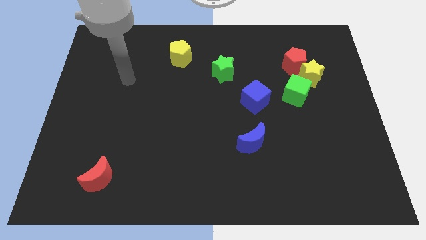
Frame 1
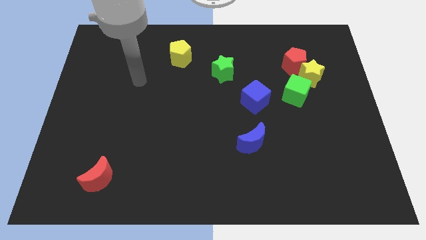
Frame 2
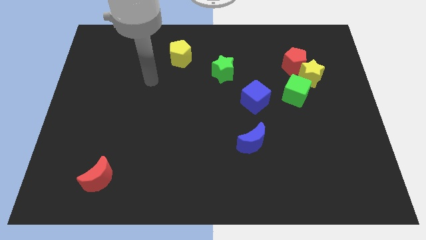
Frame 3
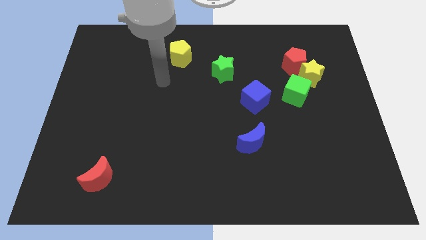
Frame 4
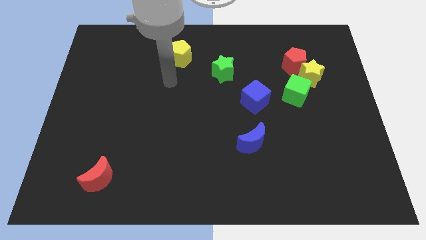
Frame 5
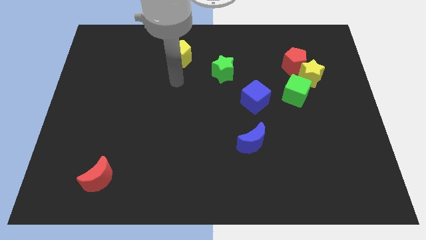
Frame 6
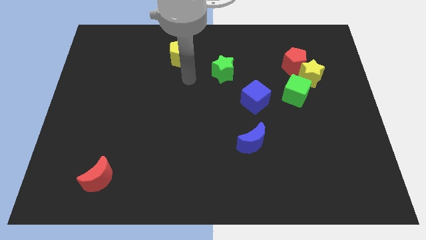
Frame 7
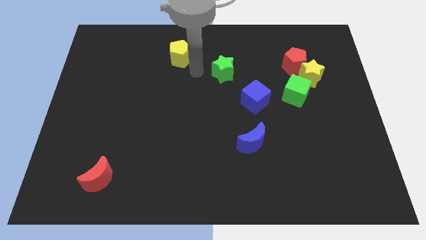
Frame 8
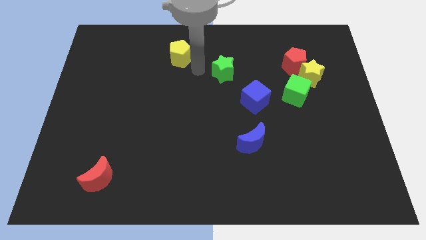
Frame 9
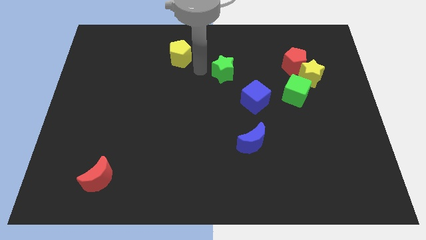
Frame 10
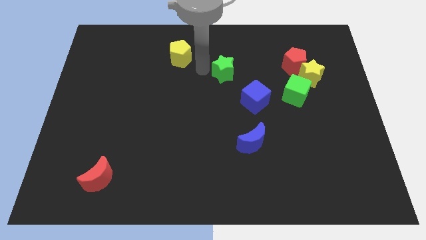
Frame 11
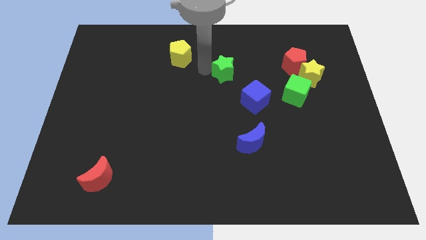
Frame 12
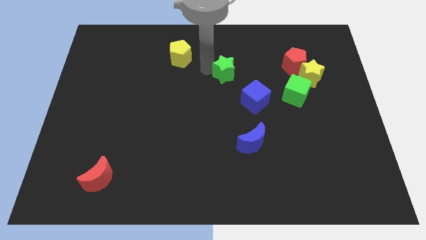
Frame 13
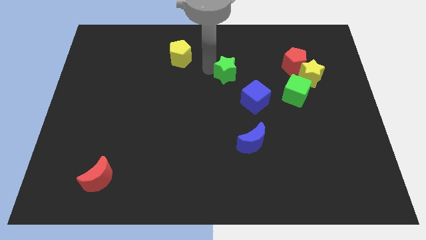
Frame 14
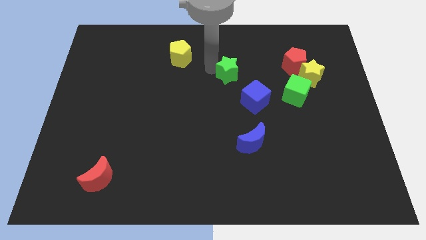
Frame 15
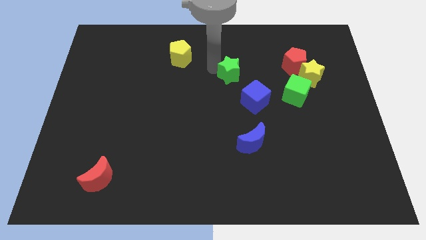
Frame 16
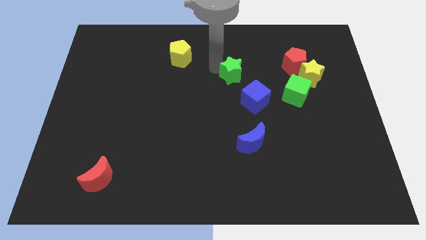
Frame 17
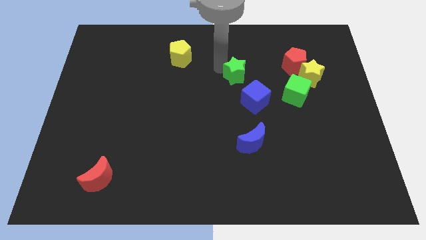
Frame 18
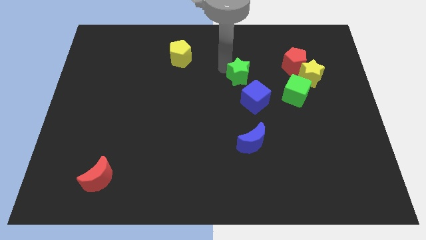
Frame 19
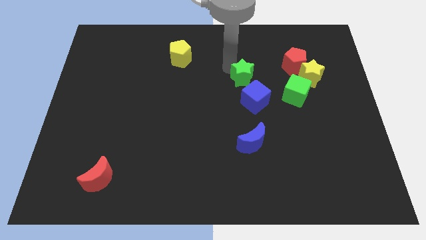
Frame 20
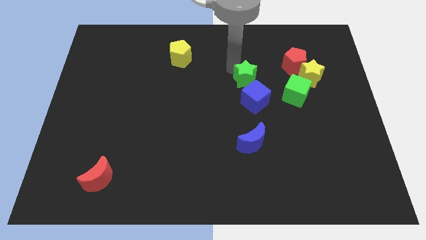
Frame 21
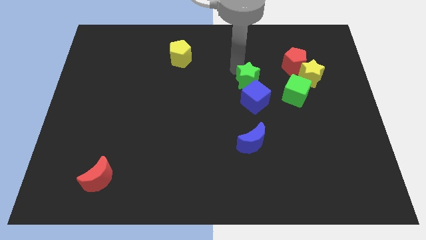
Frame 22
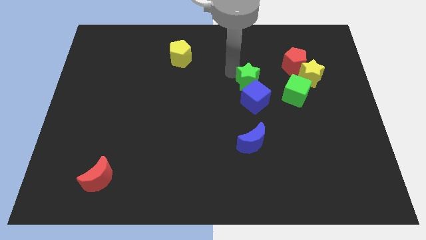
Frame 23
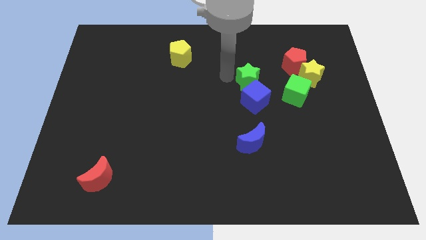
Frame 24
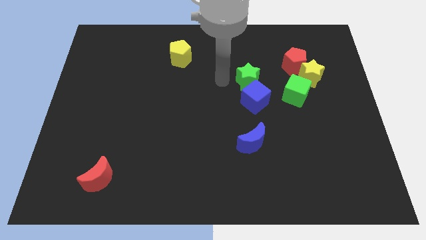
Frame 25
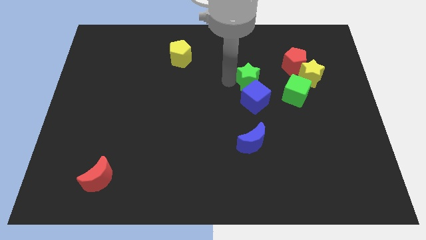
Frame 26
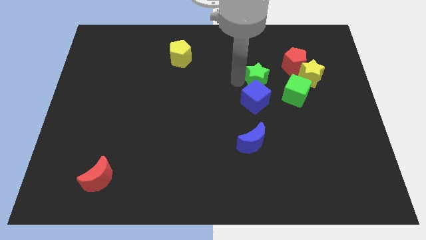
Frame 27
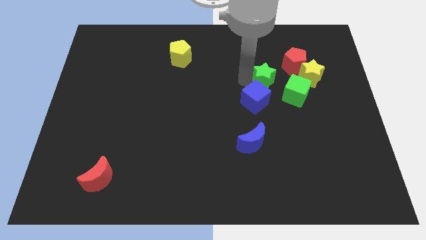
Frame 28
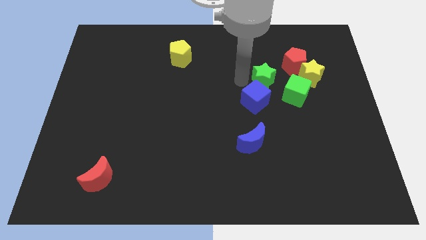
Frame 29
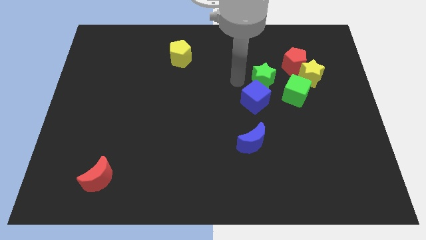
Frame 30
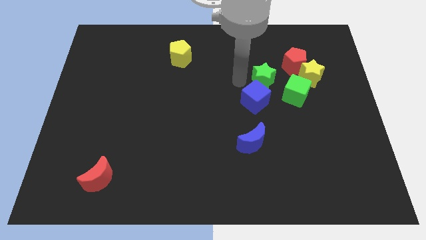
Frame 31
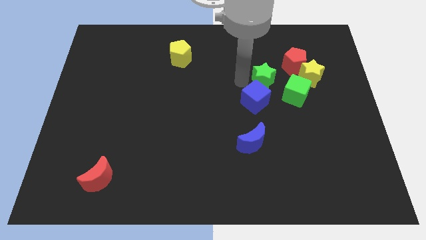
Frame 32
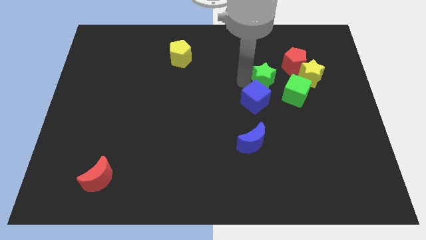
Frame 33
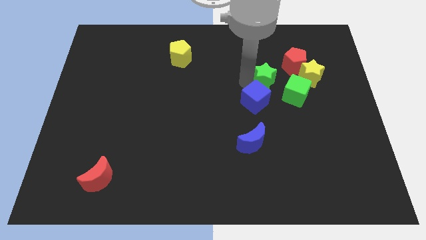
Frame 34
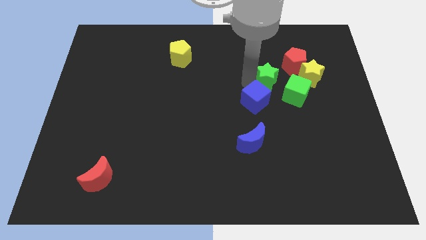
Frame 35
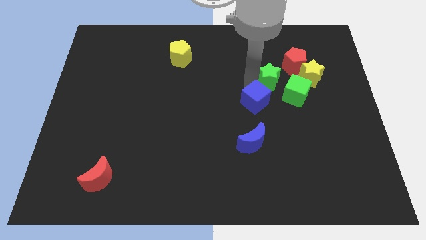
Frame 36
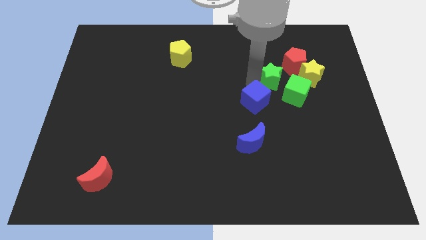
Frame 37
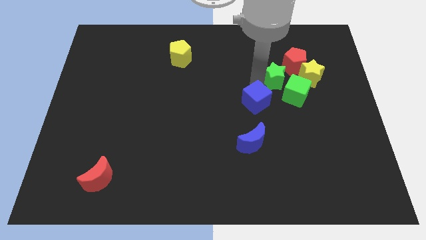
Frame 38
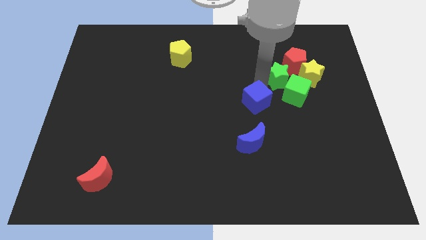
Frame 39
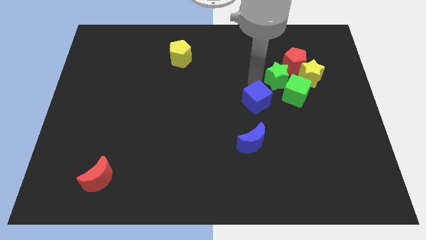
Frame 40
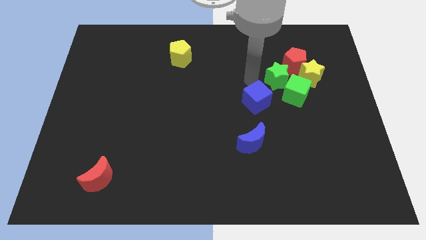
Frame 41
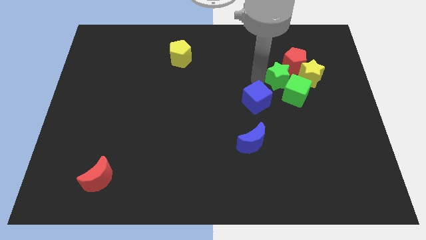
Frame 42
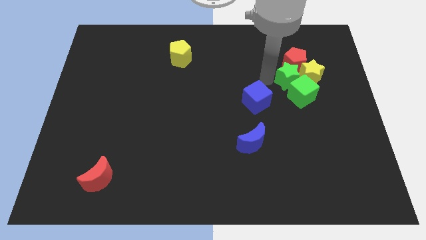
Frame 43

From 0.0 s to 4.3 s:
move the green star next to the yellow star

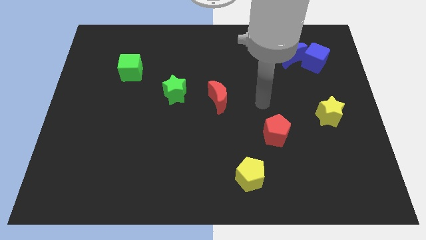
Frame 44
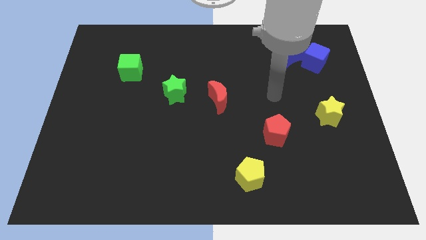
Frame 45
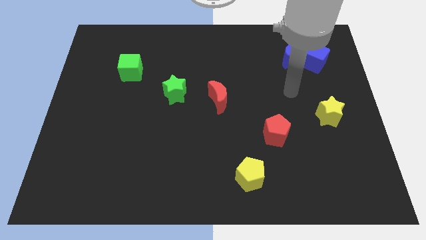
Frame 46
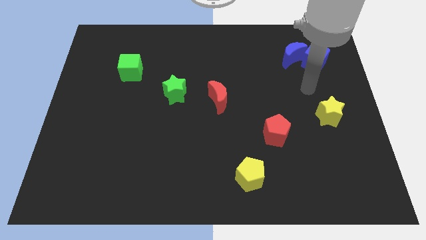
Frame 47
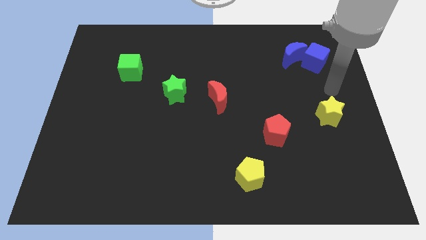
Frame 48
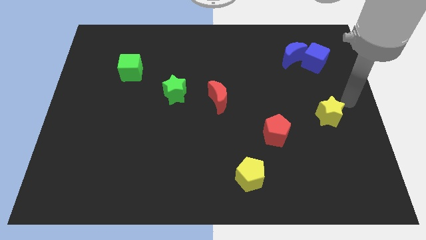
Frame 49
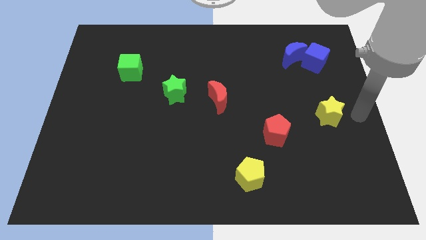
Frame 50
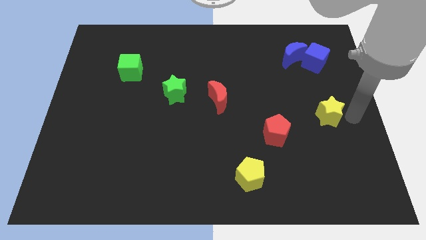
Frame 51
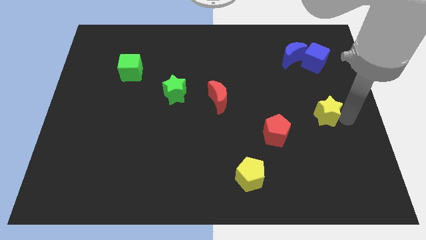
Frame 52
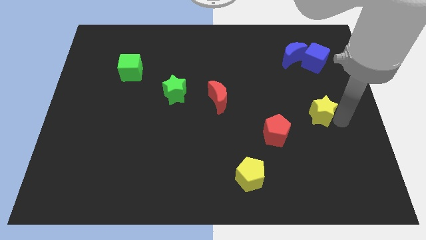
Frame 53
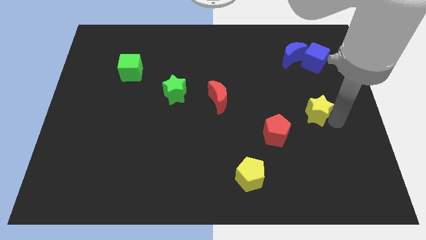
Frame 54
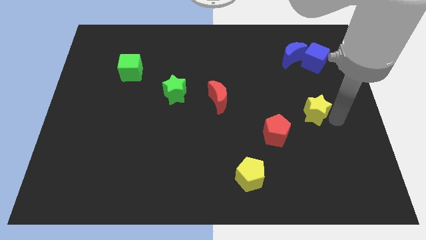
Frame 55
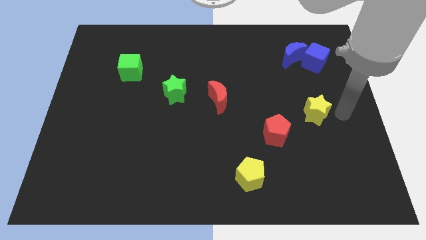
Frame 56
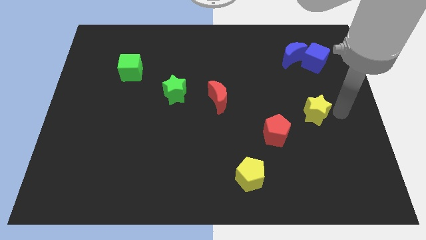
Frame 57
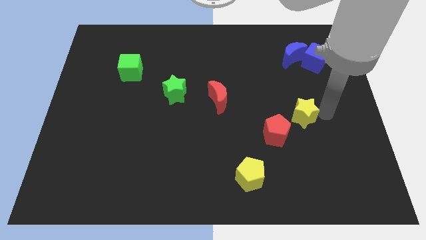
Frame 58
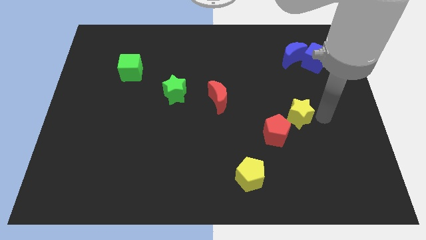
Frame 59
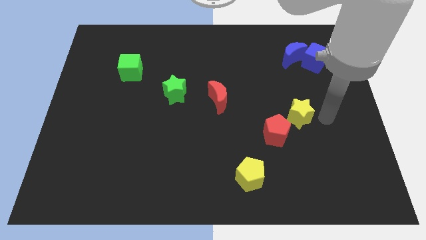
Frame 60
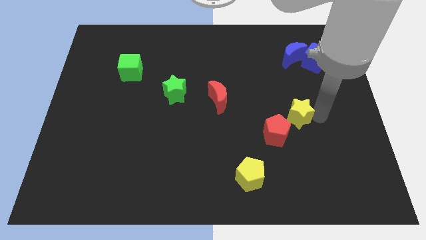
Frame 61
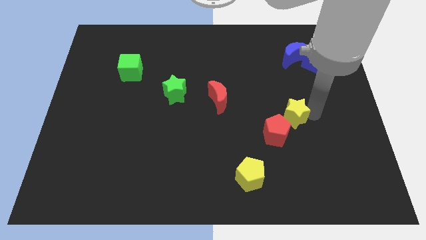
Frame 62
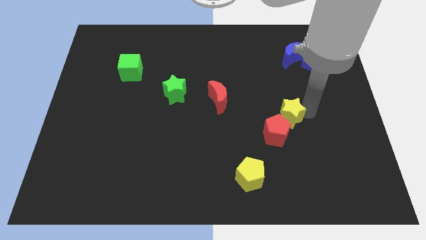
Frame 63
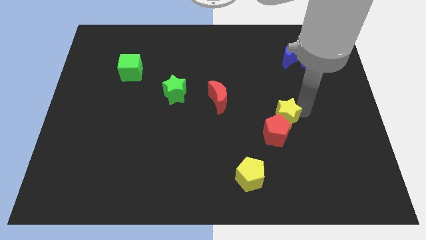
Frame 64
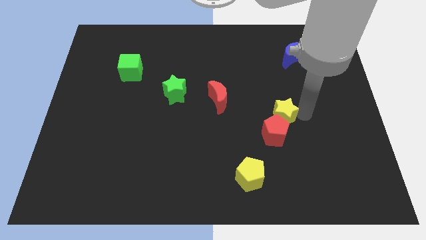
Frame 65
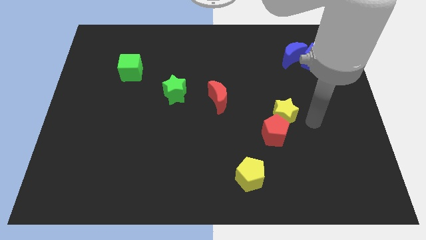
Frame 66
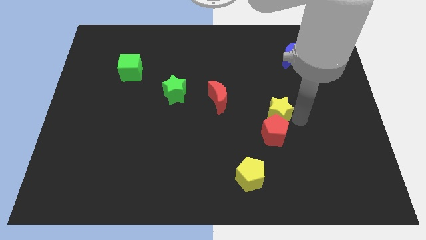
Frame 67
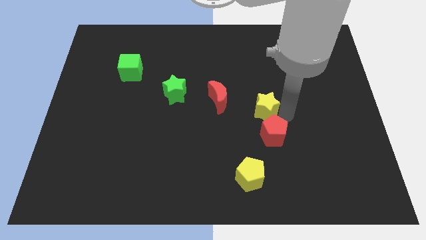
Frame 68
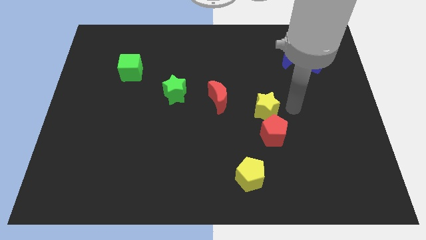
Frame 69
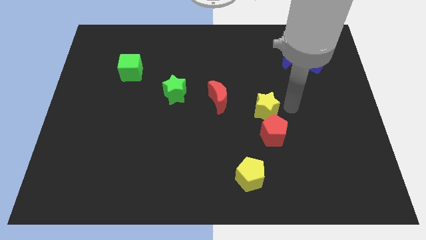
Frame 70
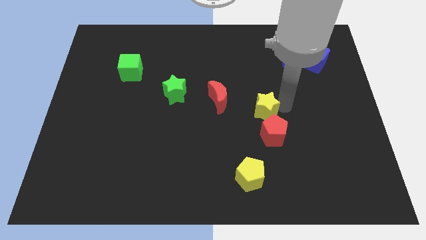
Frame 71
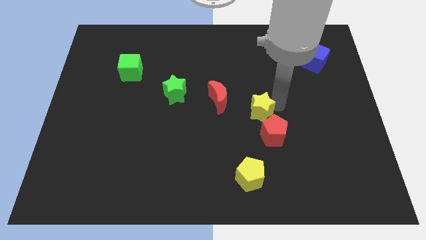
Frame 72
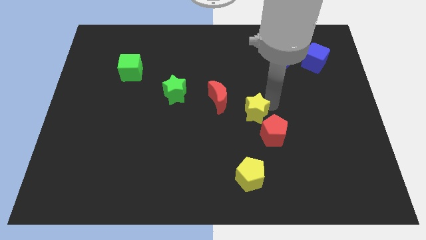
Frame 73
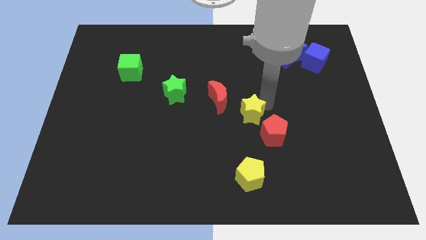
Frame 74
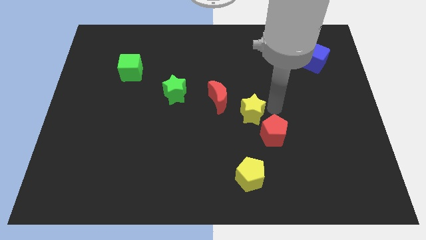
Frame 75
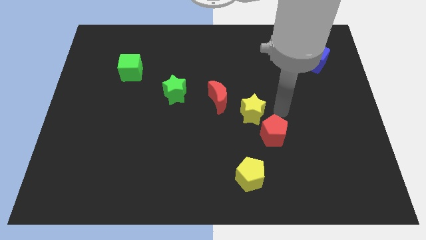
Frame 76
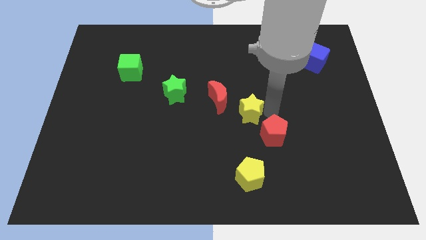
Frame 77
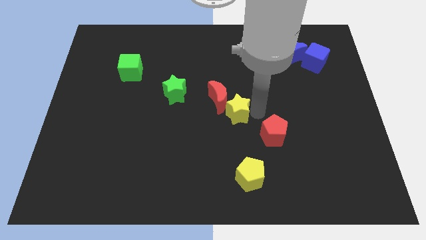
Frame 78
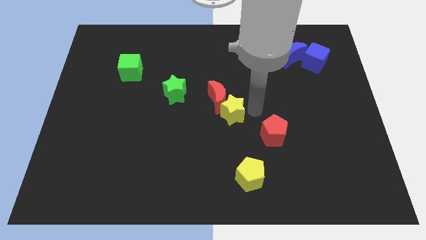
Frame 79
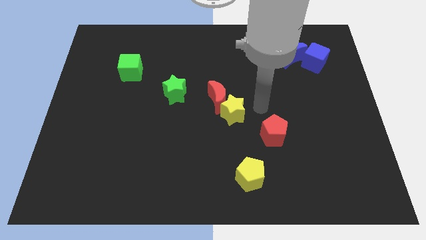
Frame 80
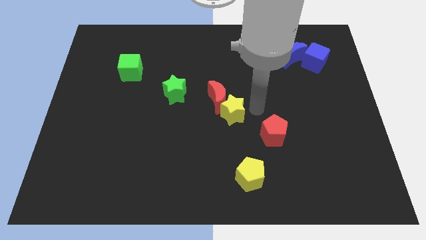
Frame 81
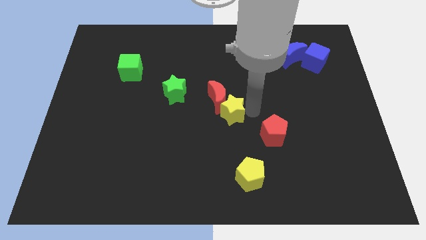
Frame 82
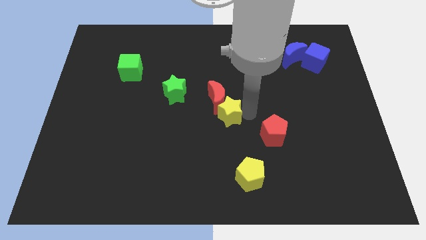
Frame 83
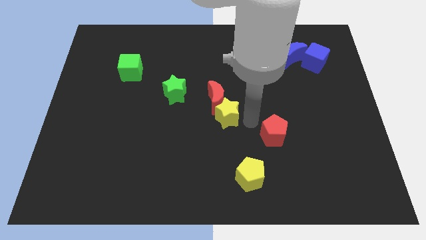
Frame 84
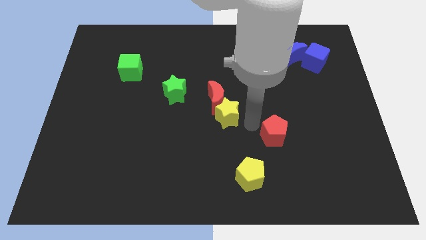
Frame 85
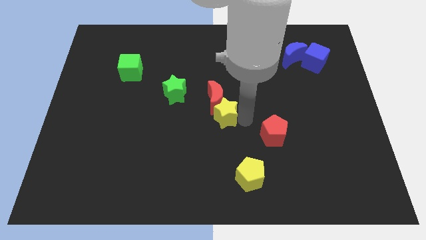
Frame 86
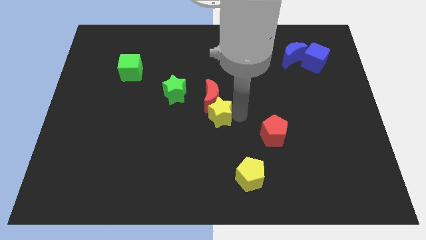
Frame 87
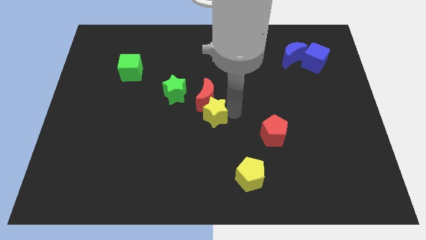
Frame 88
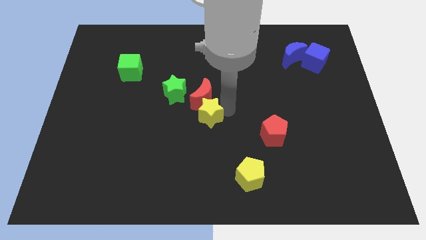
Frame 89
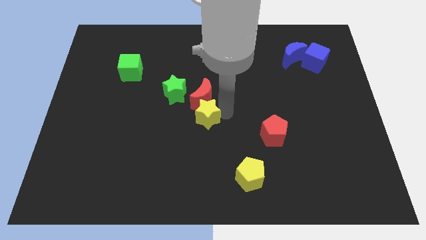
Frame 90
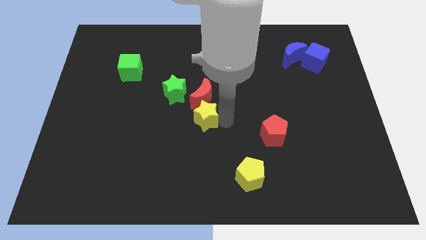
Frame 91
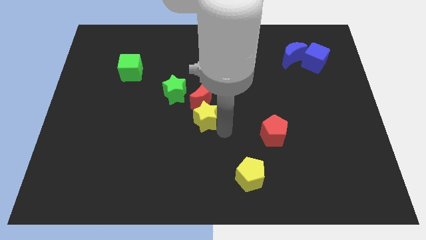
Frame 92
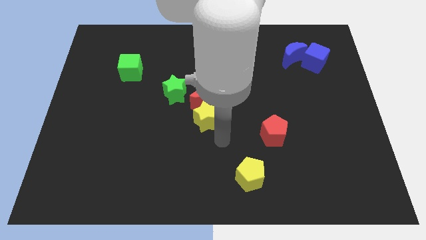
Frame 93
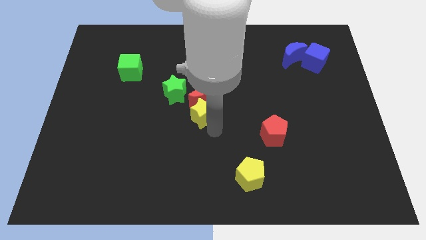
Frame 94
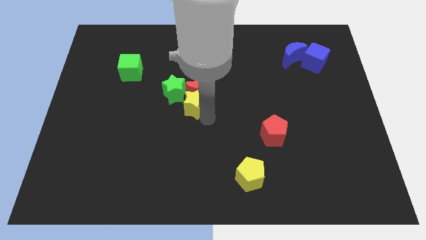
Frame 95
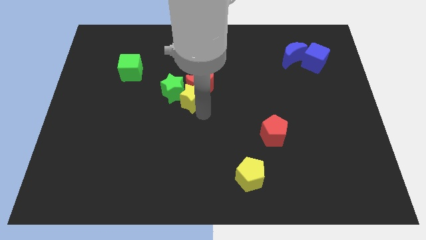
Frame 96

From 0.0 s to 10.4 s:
slide the yellow star close to the green star
